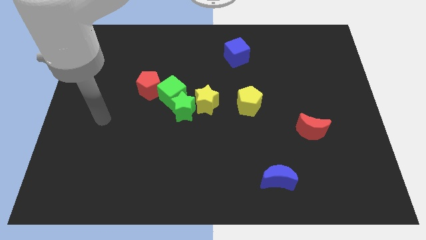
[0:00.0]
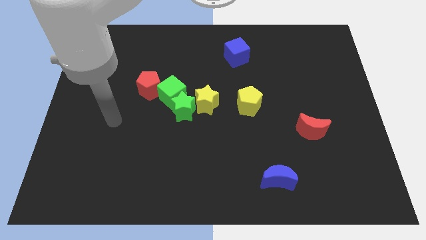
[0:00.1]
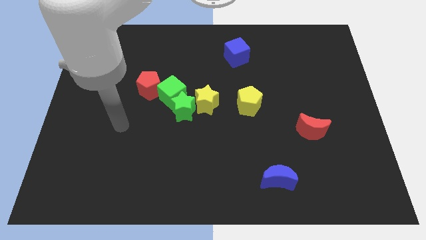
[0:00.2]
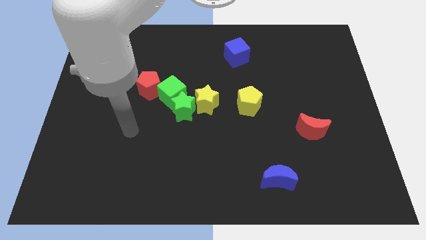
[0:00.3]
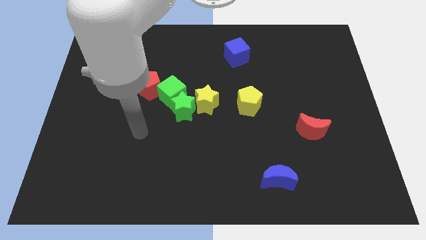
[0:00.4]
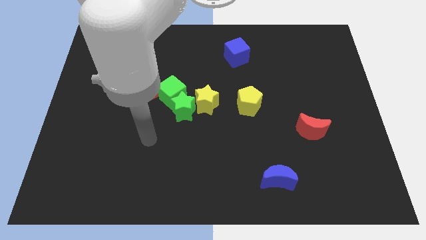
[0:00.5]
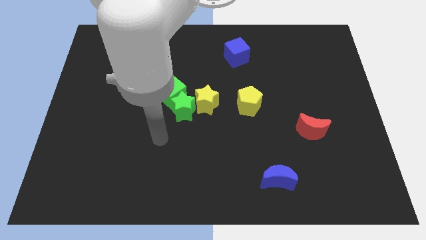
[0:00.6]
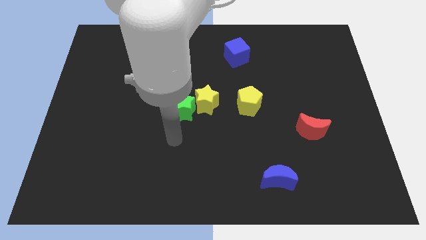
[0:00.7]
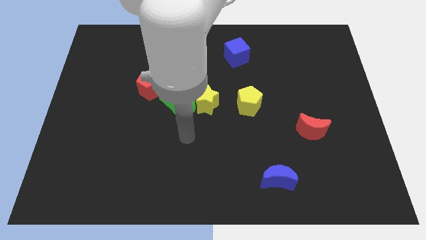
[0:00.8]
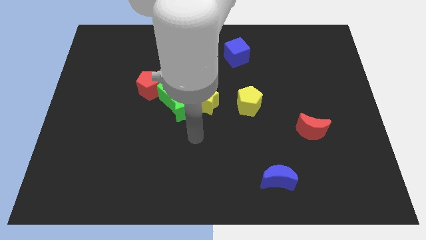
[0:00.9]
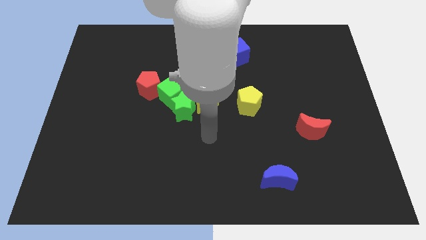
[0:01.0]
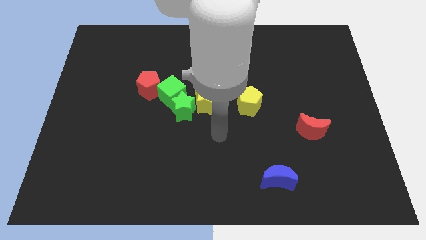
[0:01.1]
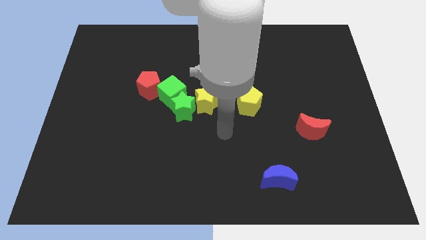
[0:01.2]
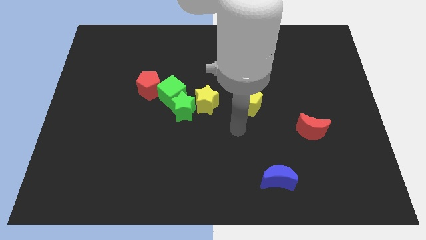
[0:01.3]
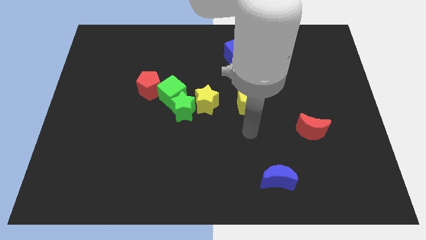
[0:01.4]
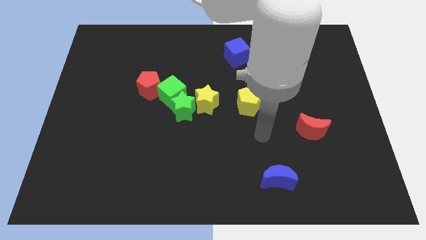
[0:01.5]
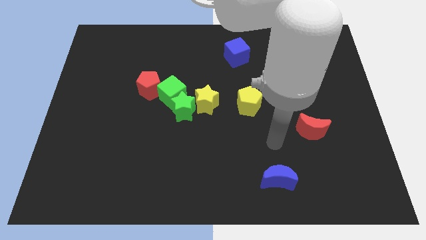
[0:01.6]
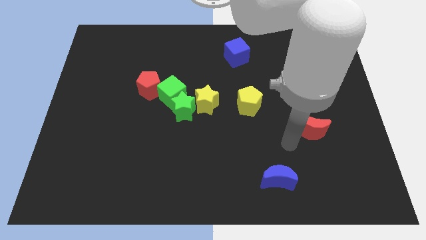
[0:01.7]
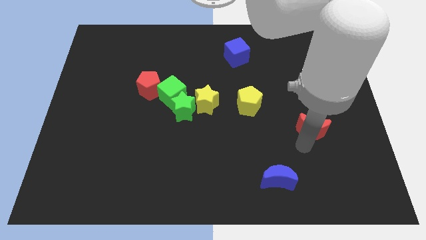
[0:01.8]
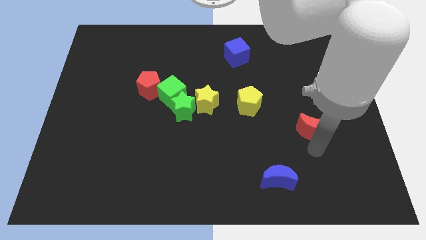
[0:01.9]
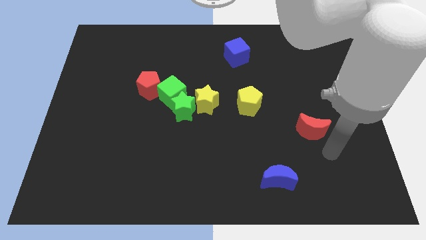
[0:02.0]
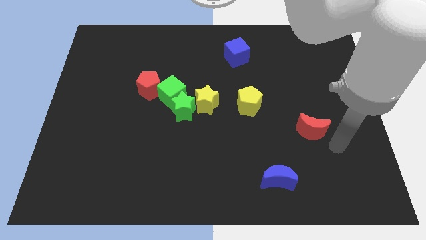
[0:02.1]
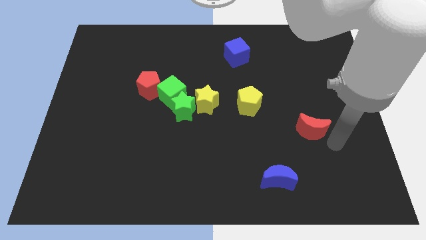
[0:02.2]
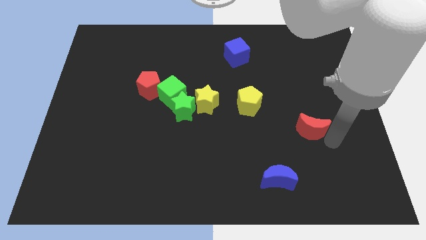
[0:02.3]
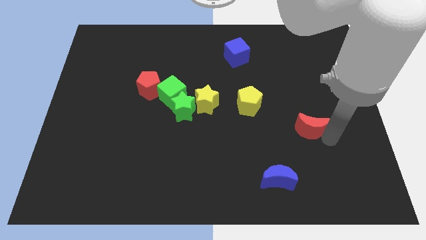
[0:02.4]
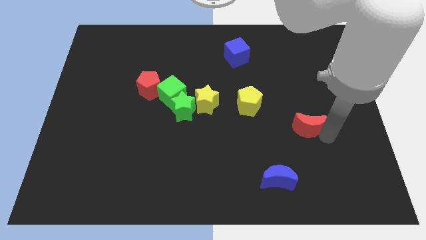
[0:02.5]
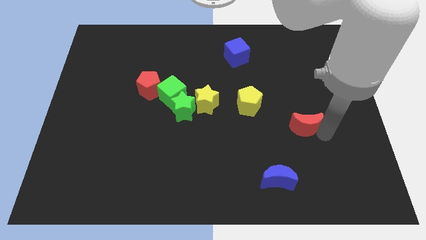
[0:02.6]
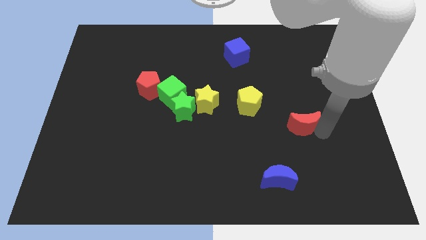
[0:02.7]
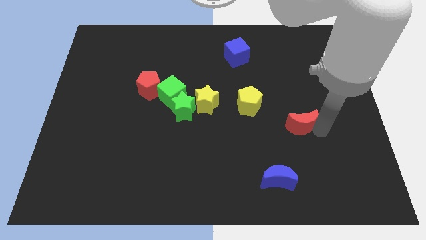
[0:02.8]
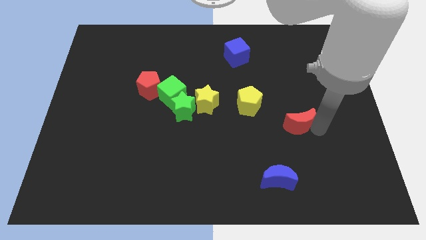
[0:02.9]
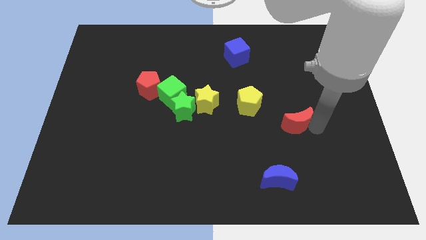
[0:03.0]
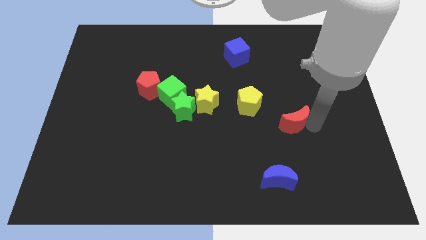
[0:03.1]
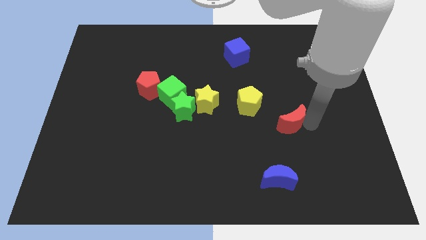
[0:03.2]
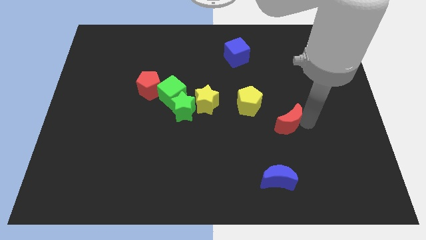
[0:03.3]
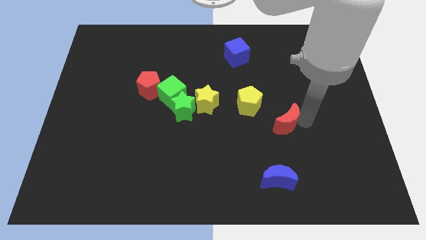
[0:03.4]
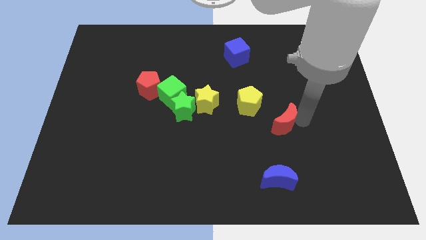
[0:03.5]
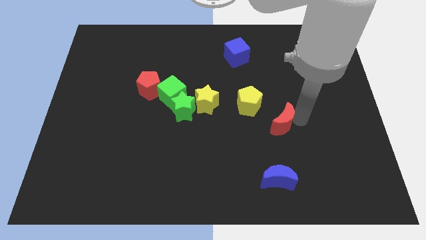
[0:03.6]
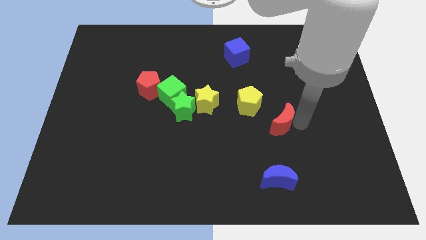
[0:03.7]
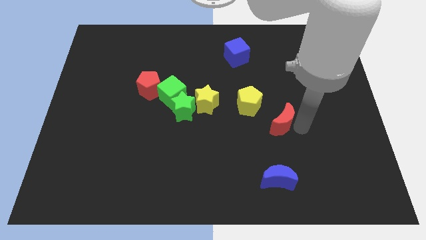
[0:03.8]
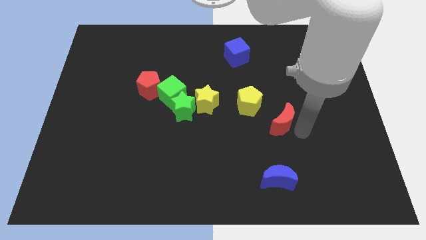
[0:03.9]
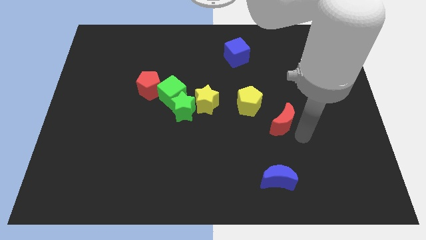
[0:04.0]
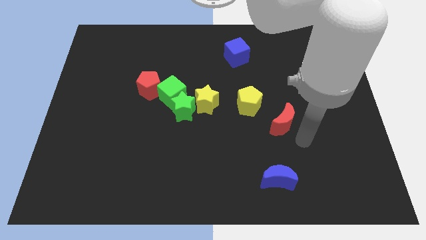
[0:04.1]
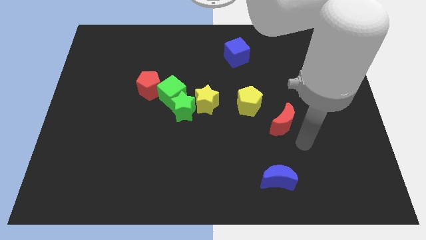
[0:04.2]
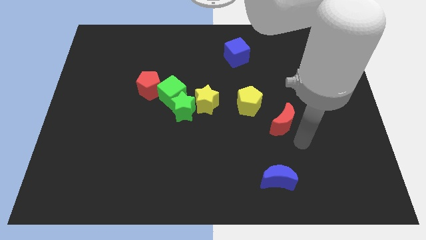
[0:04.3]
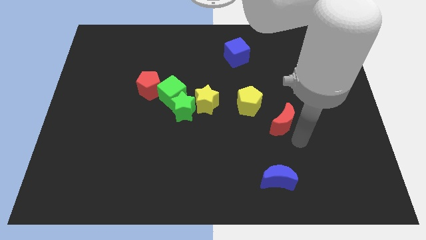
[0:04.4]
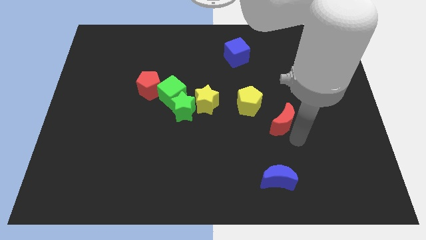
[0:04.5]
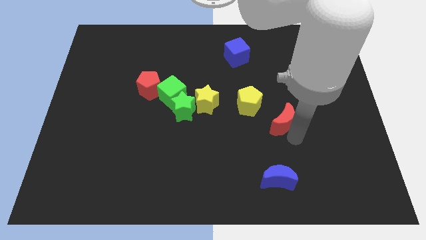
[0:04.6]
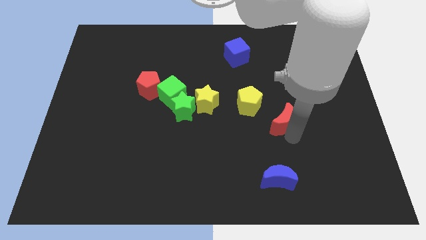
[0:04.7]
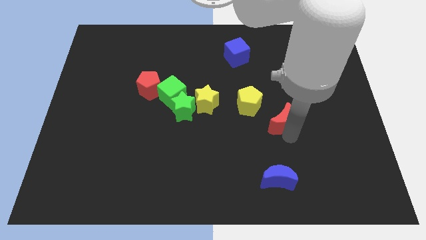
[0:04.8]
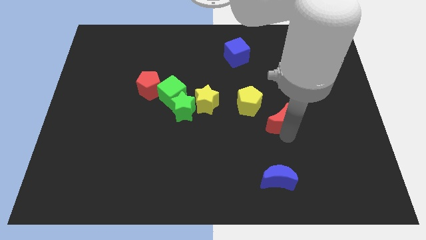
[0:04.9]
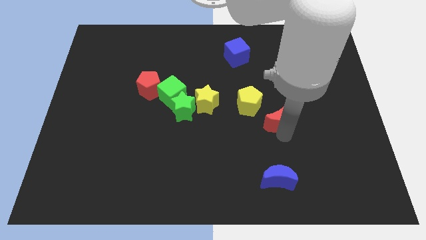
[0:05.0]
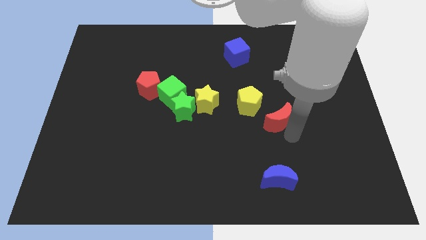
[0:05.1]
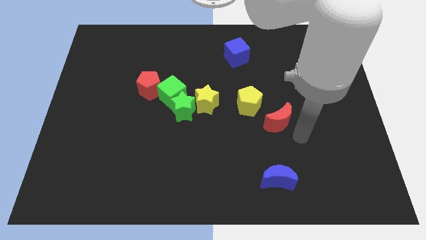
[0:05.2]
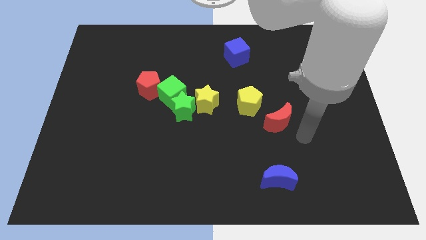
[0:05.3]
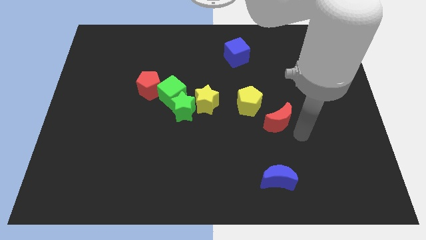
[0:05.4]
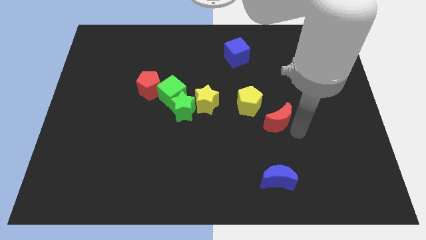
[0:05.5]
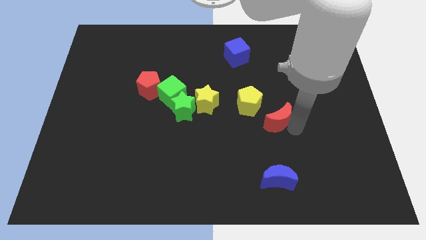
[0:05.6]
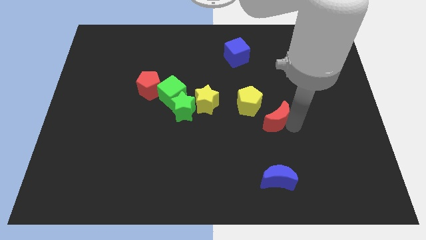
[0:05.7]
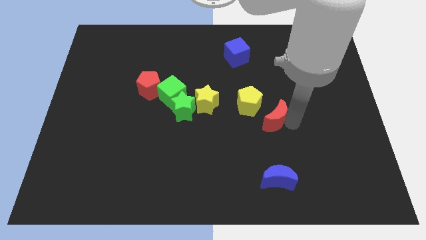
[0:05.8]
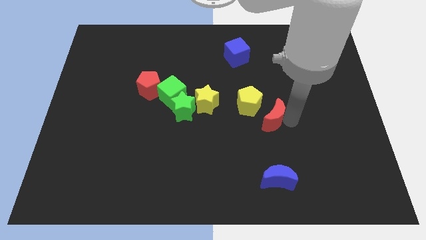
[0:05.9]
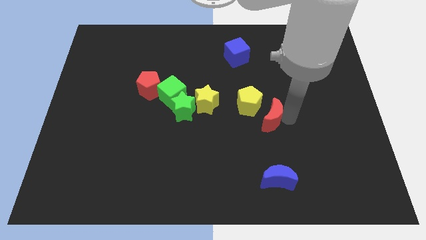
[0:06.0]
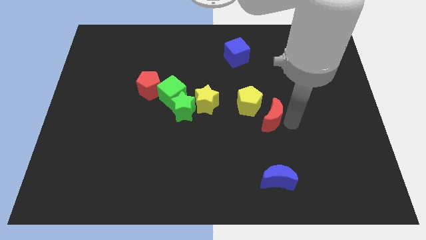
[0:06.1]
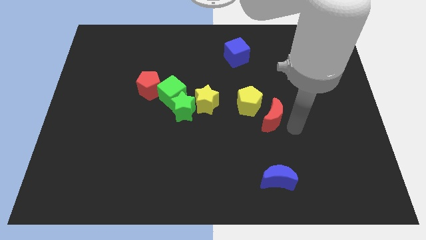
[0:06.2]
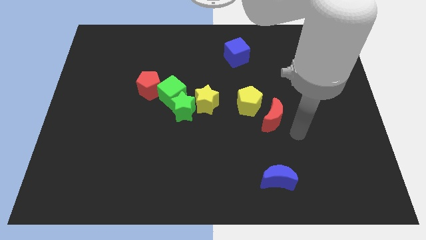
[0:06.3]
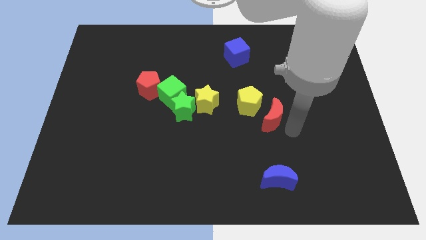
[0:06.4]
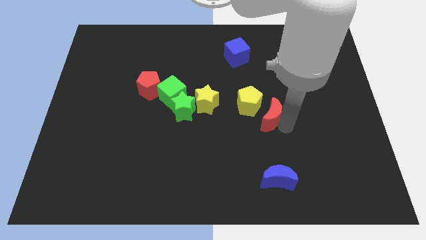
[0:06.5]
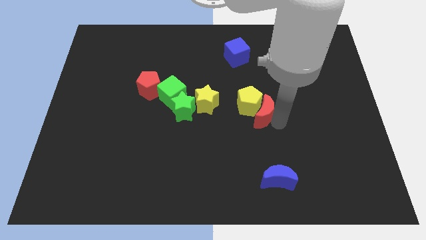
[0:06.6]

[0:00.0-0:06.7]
push the red moon close to the yellow pentagon
